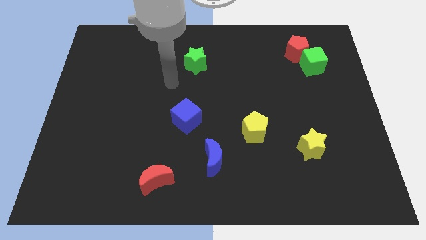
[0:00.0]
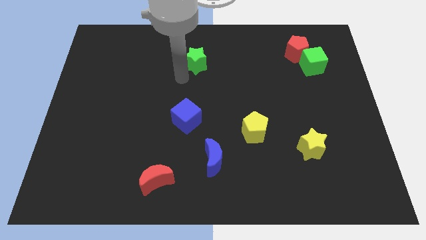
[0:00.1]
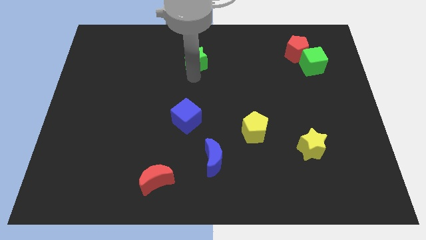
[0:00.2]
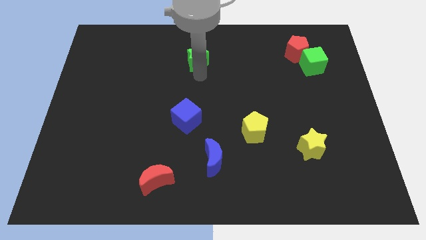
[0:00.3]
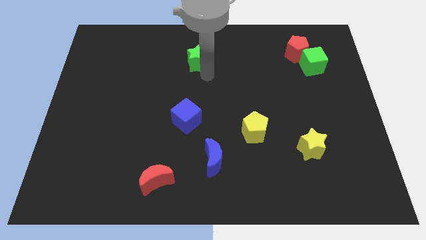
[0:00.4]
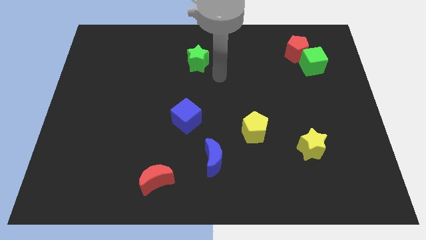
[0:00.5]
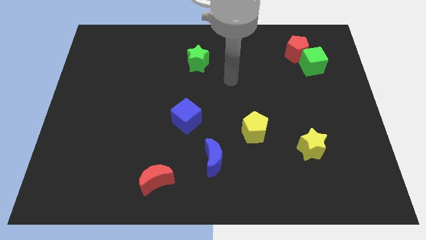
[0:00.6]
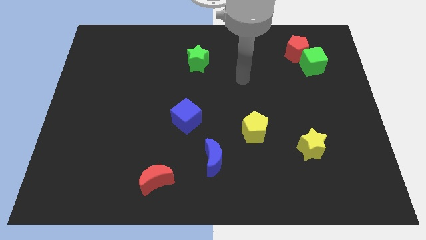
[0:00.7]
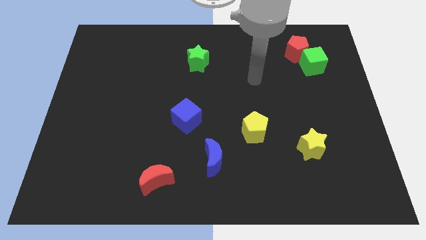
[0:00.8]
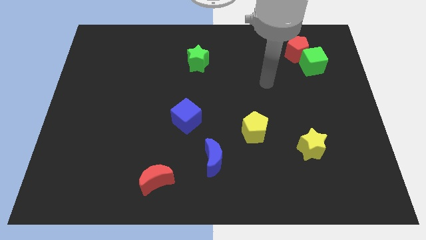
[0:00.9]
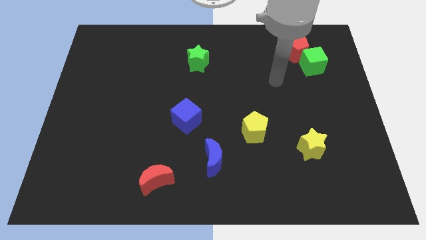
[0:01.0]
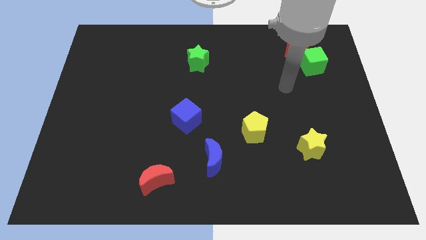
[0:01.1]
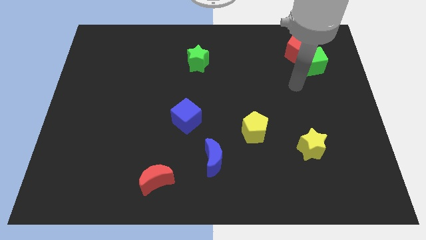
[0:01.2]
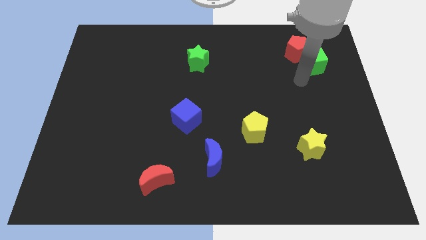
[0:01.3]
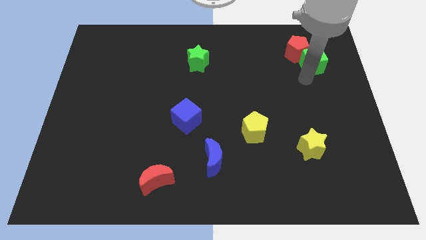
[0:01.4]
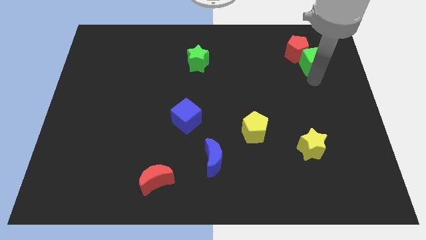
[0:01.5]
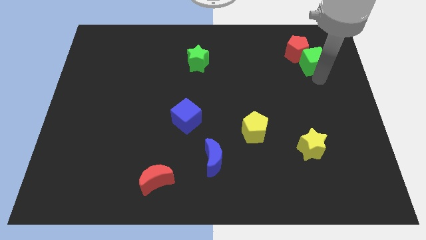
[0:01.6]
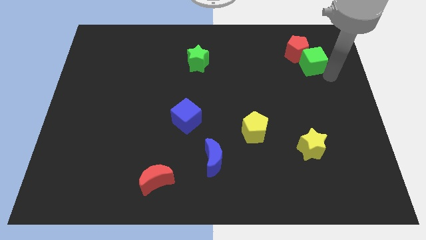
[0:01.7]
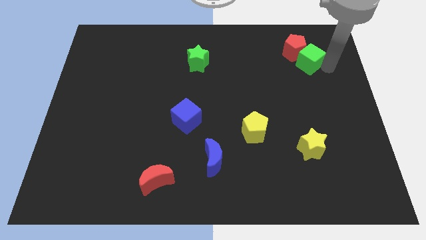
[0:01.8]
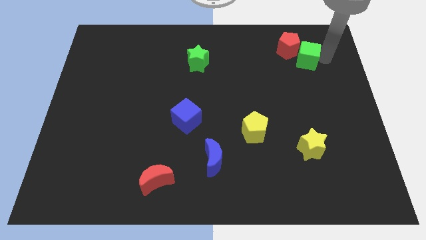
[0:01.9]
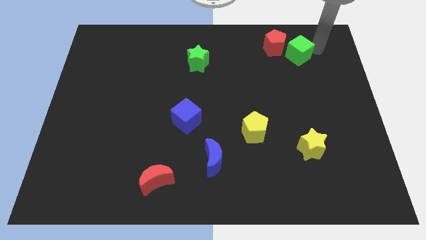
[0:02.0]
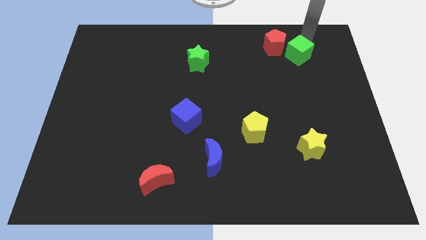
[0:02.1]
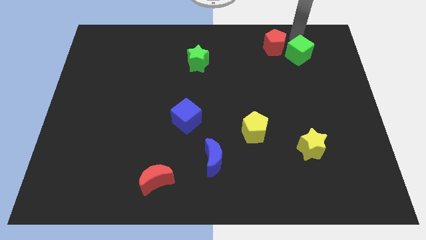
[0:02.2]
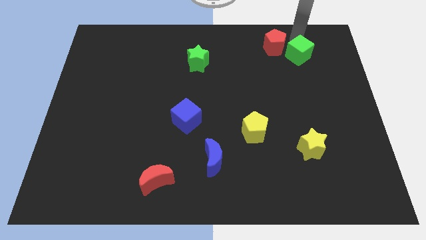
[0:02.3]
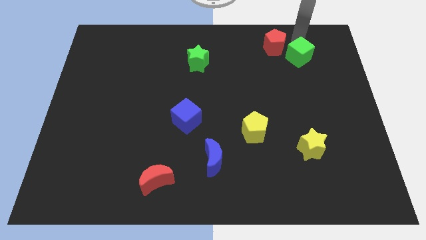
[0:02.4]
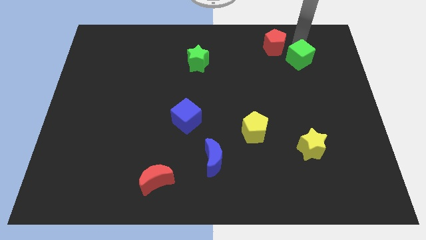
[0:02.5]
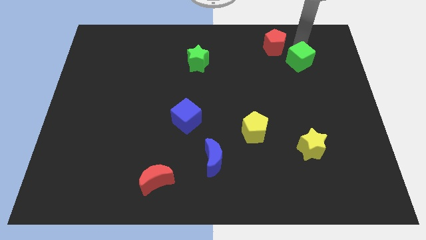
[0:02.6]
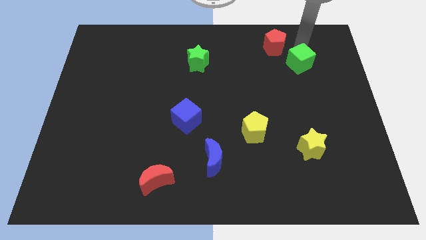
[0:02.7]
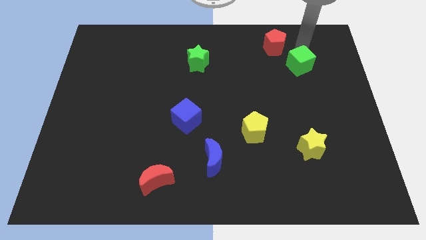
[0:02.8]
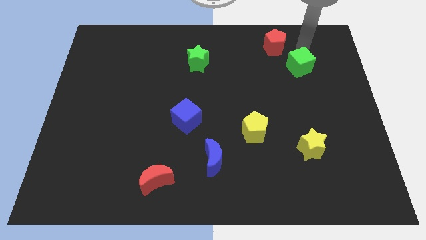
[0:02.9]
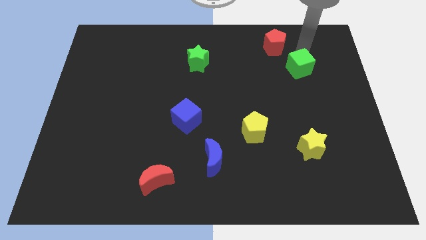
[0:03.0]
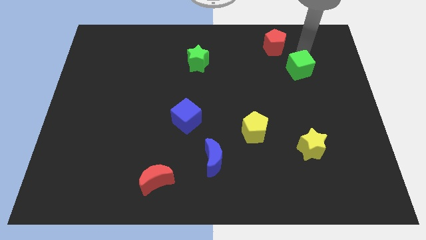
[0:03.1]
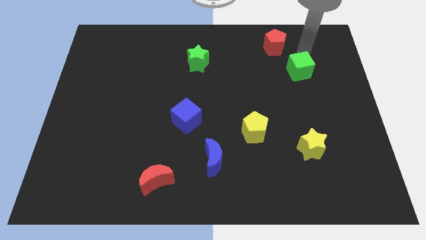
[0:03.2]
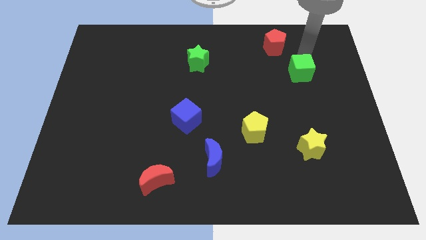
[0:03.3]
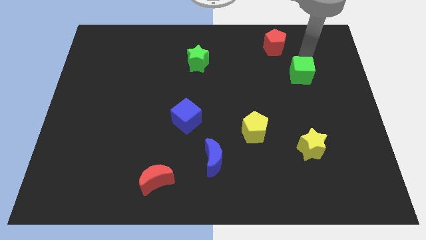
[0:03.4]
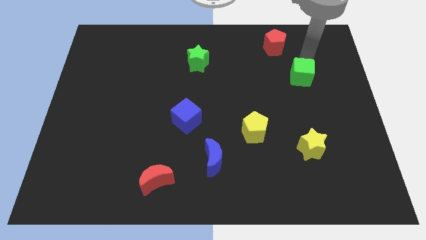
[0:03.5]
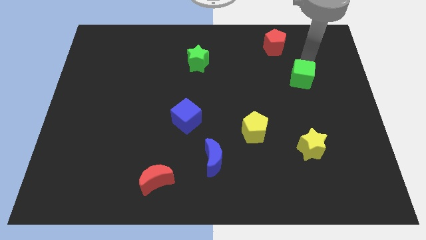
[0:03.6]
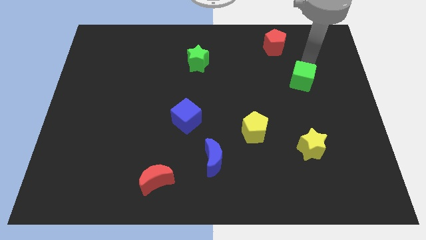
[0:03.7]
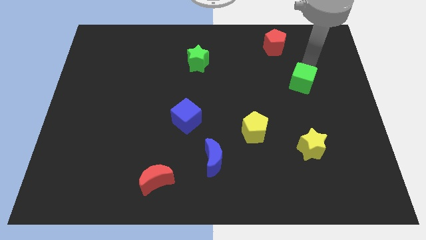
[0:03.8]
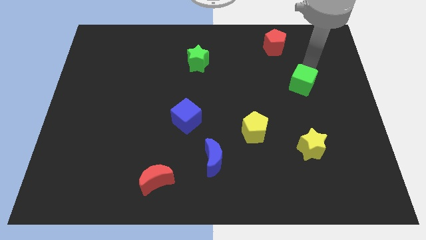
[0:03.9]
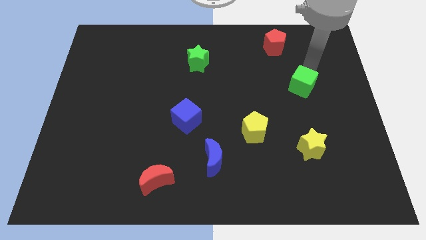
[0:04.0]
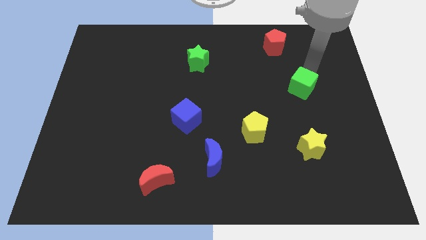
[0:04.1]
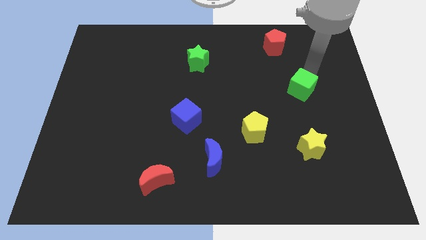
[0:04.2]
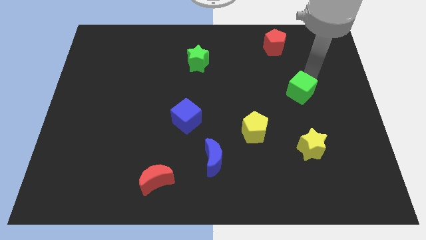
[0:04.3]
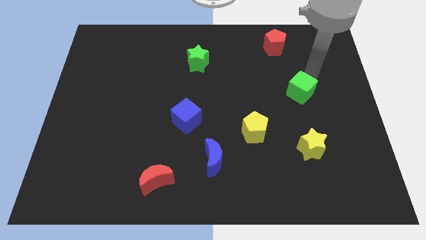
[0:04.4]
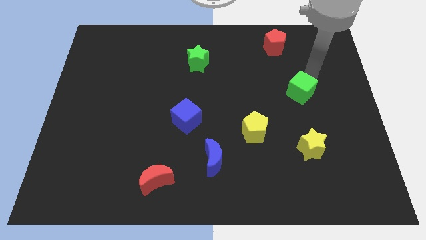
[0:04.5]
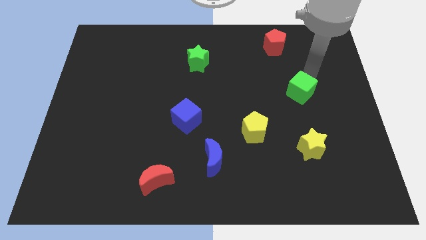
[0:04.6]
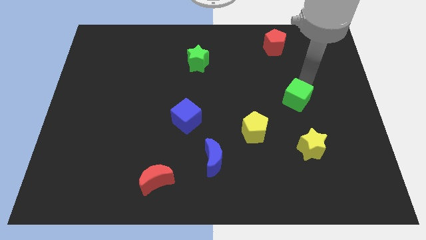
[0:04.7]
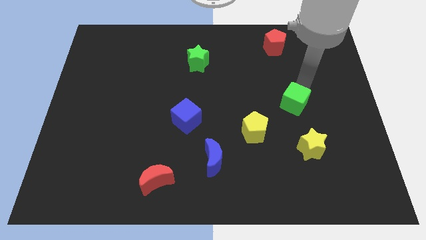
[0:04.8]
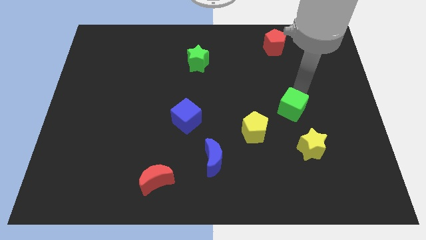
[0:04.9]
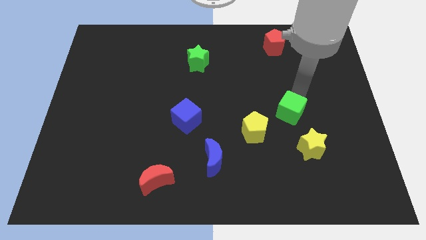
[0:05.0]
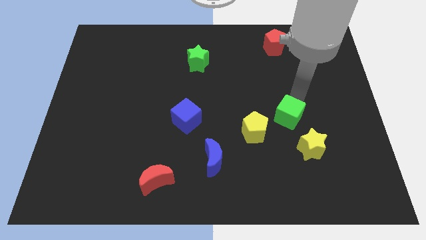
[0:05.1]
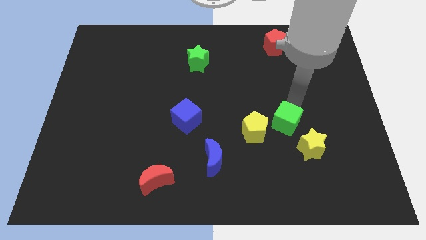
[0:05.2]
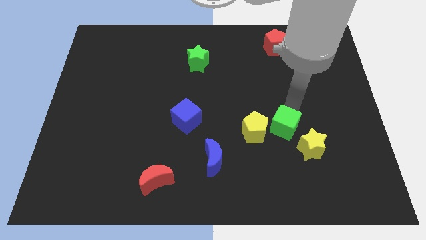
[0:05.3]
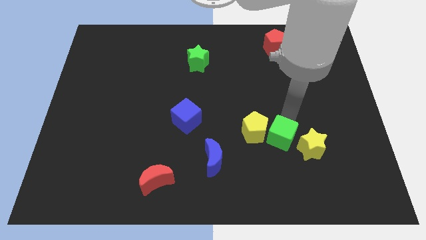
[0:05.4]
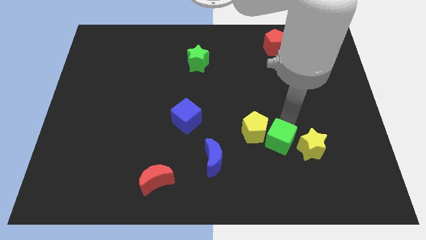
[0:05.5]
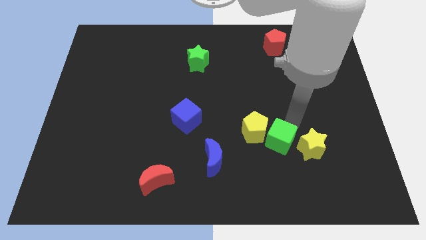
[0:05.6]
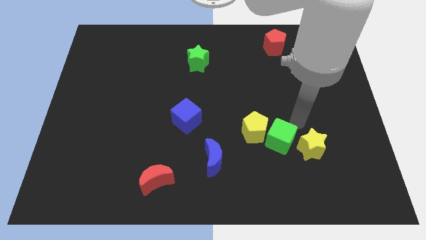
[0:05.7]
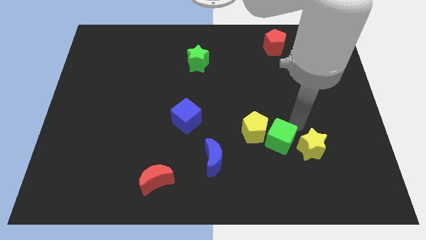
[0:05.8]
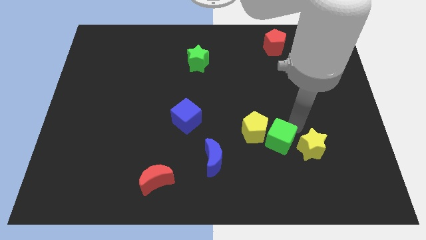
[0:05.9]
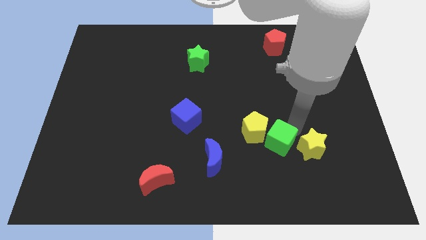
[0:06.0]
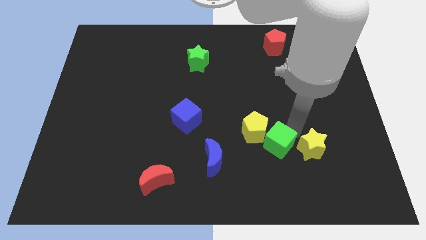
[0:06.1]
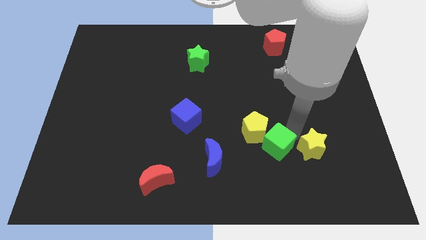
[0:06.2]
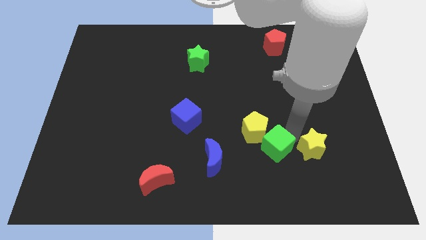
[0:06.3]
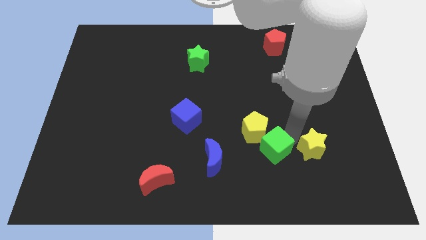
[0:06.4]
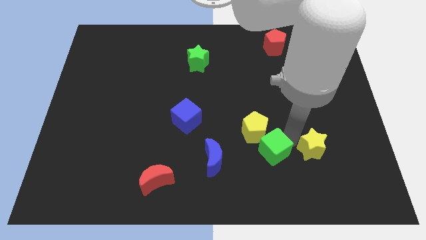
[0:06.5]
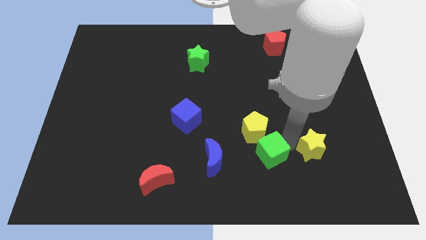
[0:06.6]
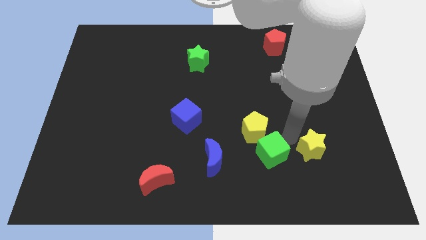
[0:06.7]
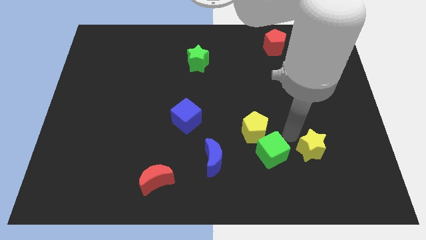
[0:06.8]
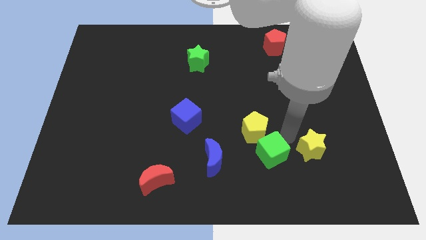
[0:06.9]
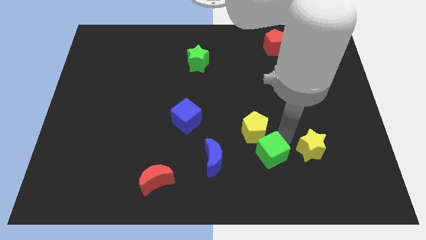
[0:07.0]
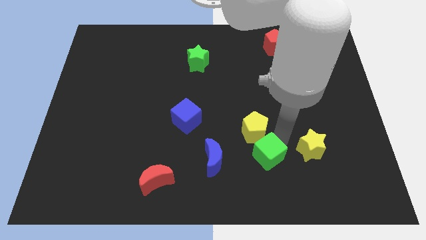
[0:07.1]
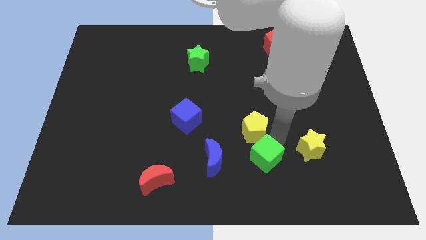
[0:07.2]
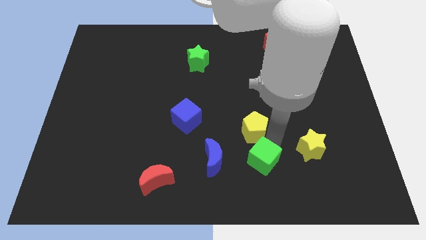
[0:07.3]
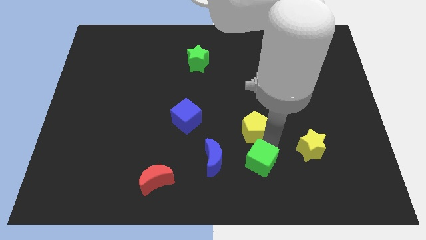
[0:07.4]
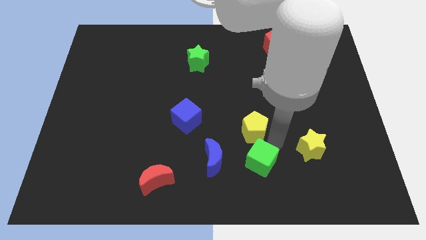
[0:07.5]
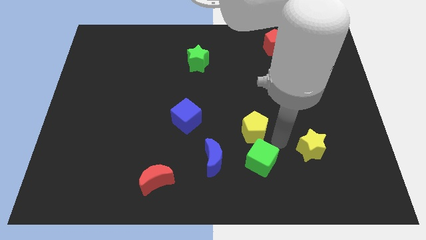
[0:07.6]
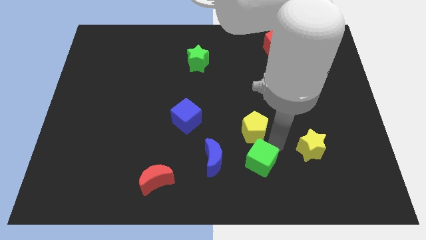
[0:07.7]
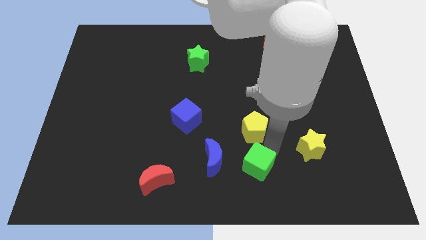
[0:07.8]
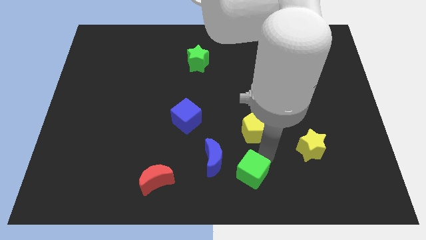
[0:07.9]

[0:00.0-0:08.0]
move the green cube diagonally down and to the right of the blue moon
